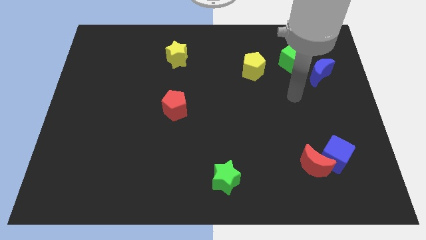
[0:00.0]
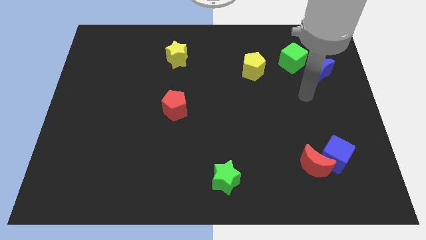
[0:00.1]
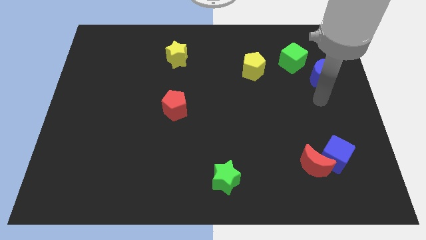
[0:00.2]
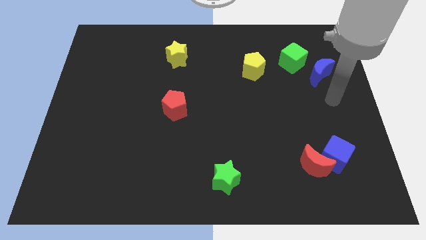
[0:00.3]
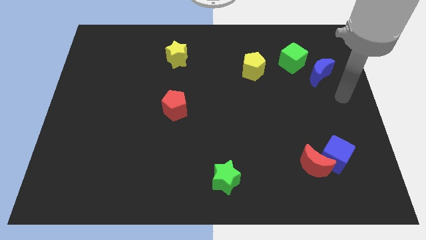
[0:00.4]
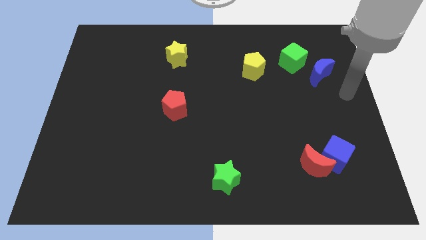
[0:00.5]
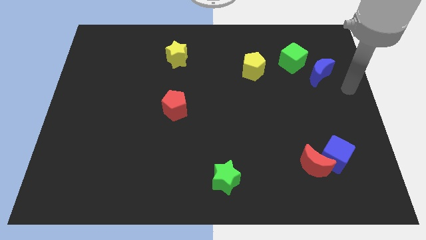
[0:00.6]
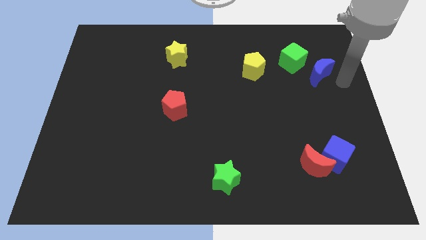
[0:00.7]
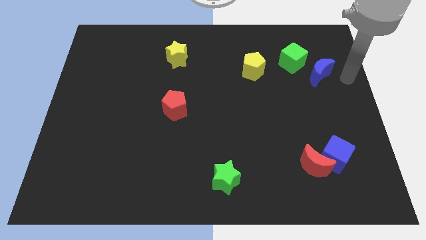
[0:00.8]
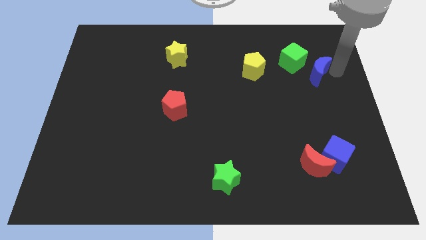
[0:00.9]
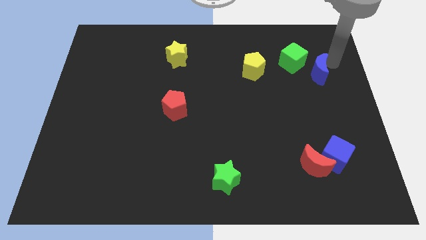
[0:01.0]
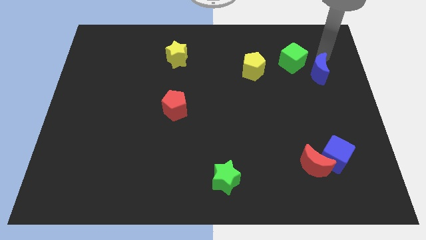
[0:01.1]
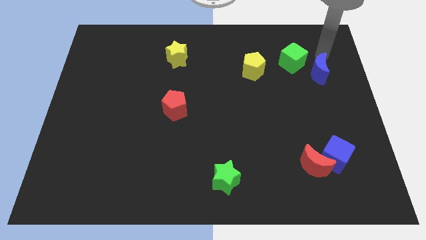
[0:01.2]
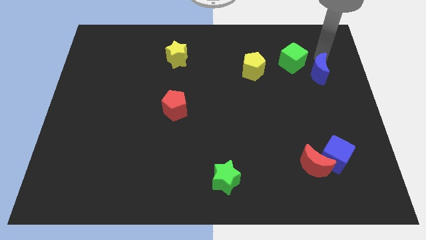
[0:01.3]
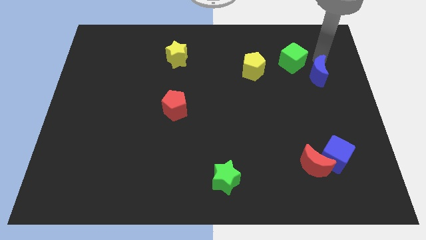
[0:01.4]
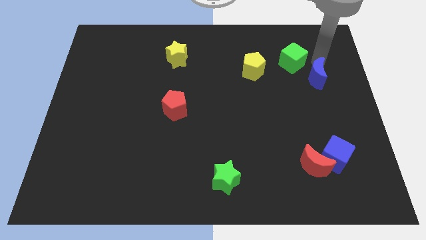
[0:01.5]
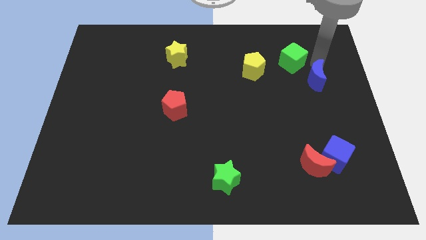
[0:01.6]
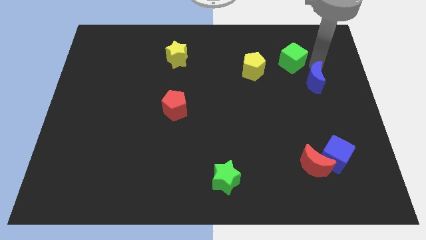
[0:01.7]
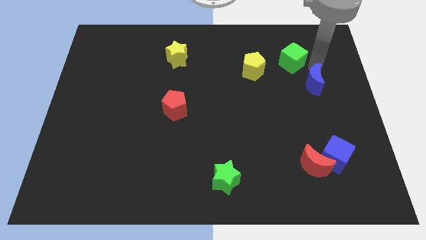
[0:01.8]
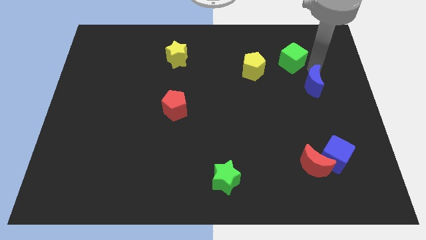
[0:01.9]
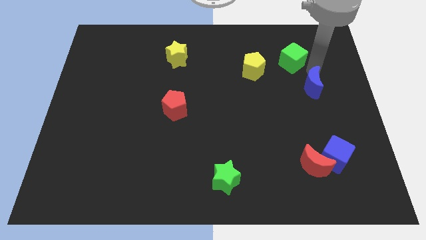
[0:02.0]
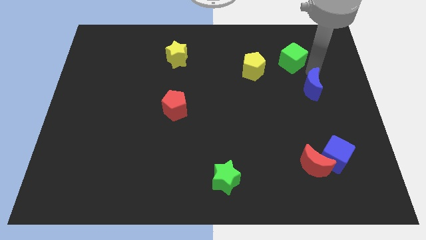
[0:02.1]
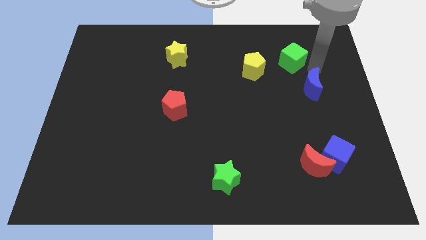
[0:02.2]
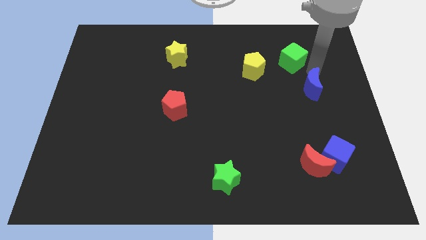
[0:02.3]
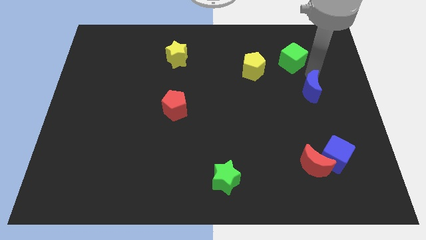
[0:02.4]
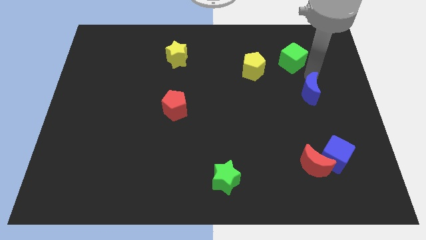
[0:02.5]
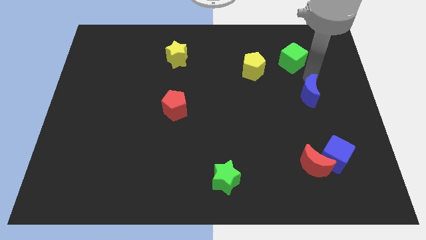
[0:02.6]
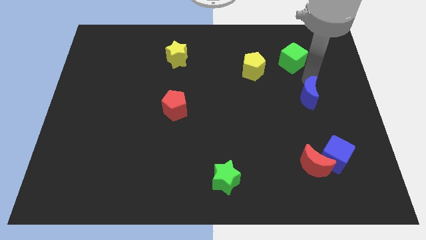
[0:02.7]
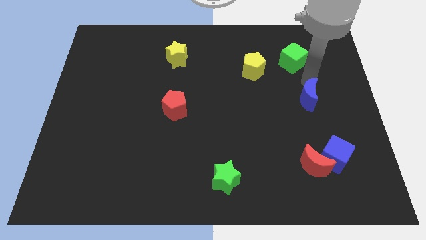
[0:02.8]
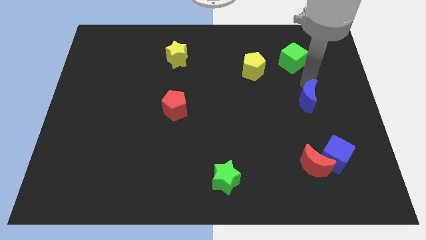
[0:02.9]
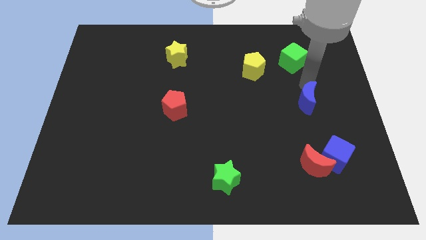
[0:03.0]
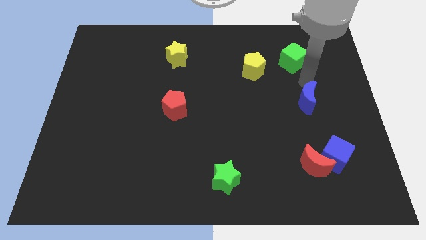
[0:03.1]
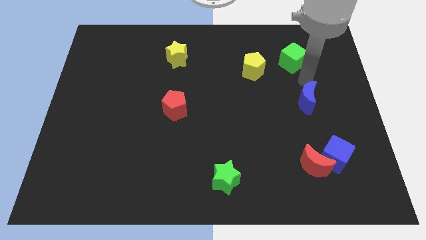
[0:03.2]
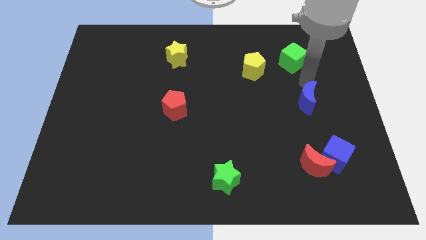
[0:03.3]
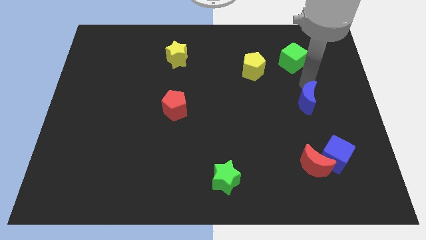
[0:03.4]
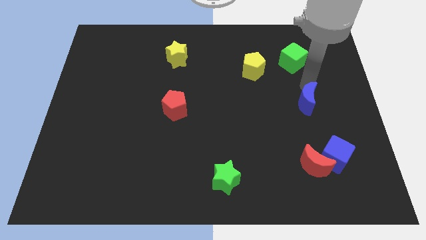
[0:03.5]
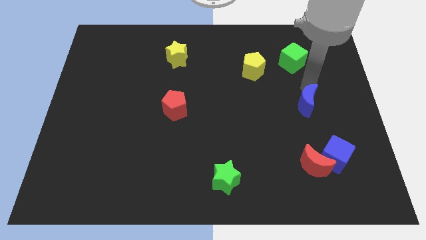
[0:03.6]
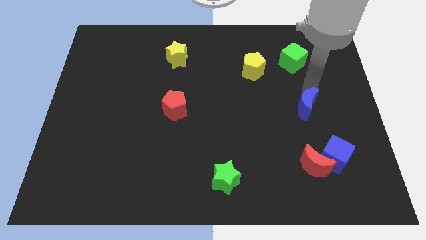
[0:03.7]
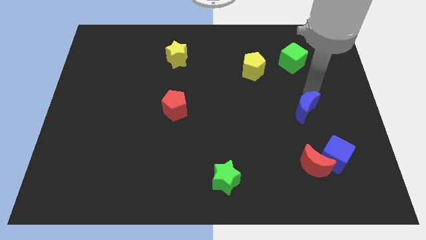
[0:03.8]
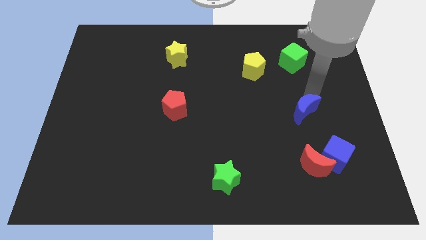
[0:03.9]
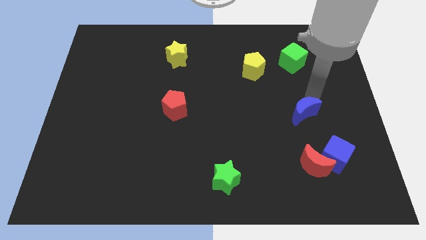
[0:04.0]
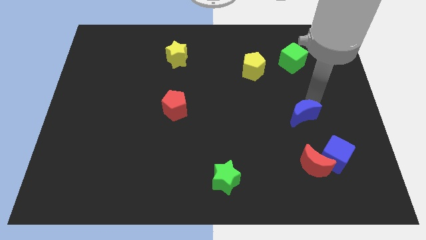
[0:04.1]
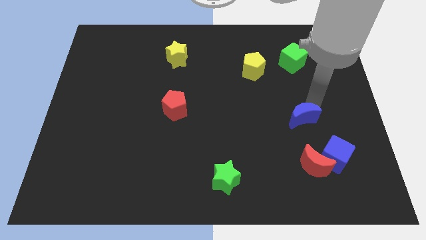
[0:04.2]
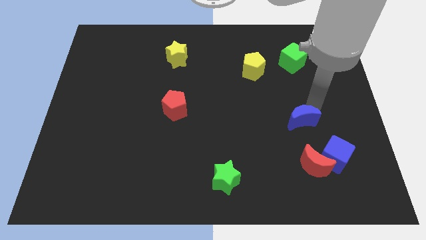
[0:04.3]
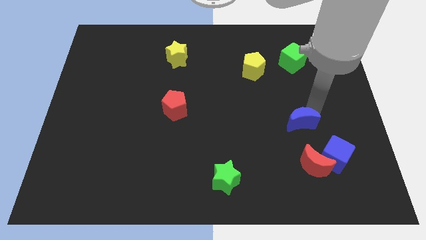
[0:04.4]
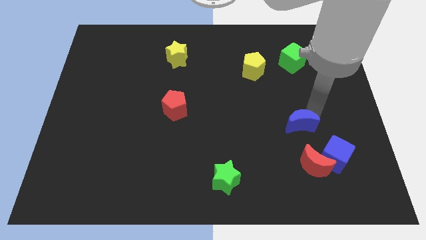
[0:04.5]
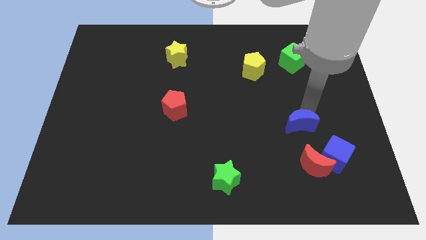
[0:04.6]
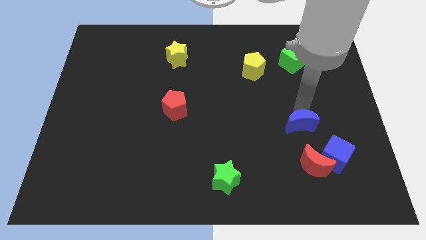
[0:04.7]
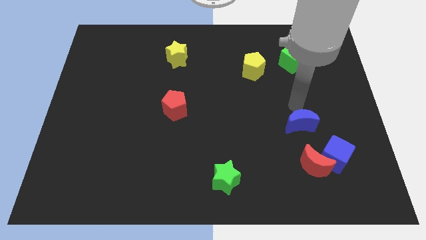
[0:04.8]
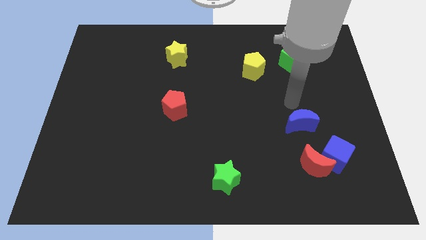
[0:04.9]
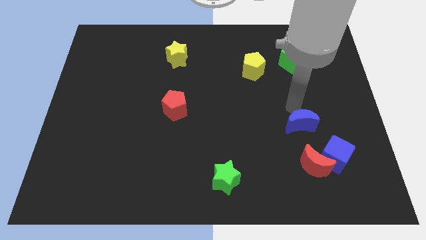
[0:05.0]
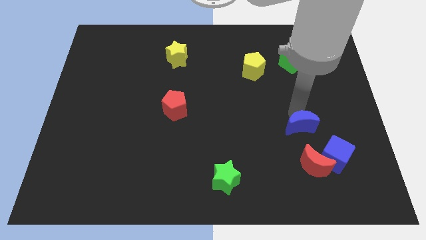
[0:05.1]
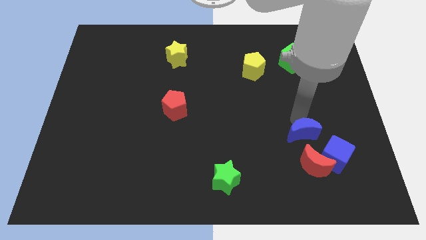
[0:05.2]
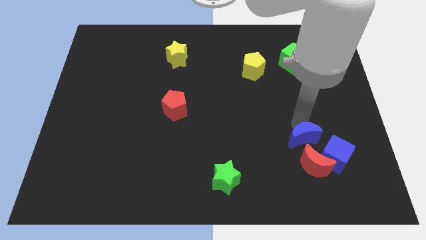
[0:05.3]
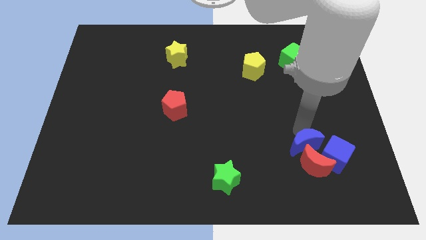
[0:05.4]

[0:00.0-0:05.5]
push the blue moon close to the red moon

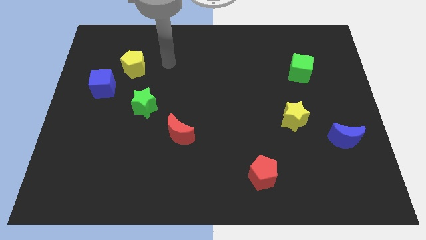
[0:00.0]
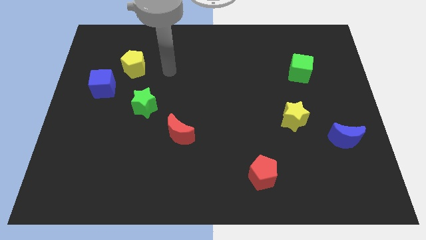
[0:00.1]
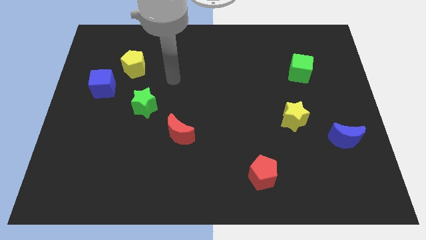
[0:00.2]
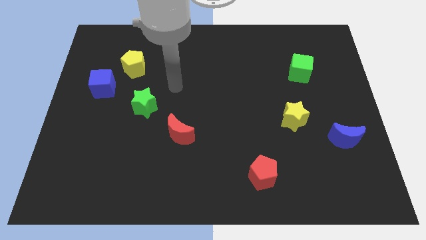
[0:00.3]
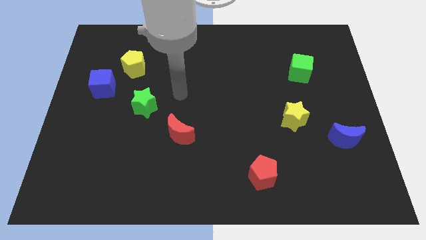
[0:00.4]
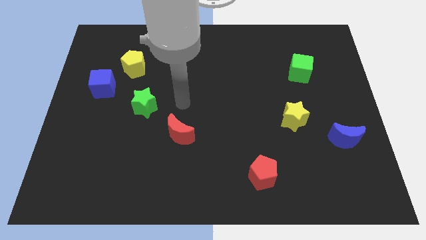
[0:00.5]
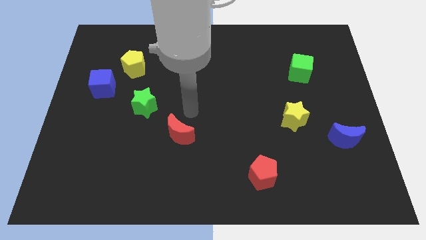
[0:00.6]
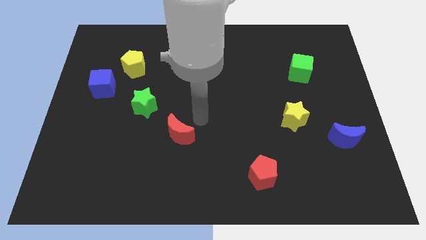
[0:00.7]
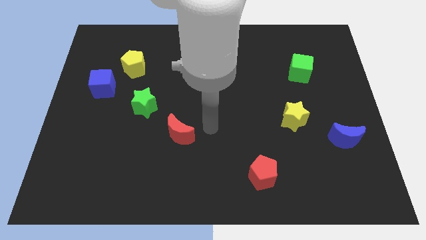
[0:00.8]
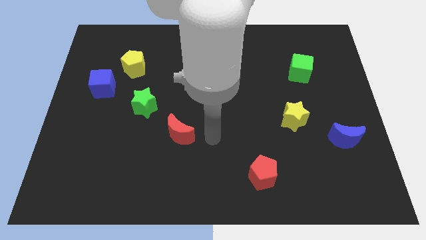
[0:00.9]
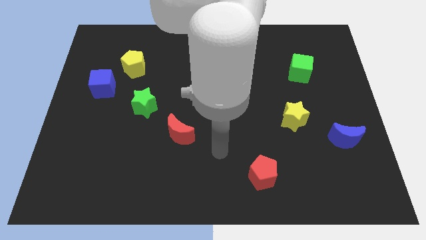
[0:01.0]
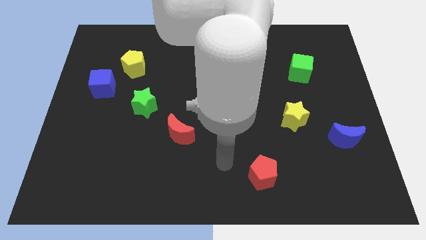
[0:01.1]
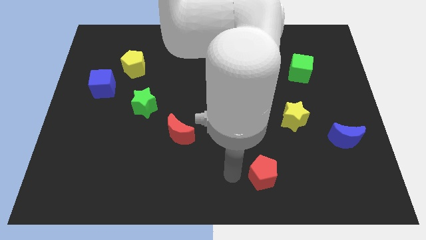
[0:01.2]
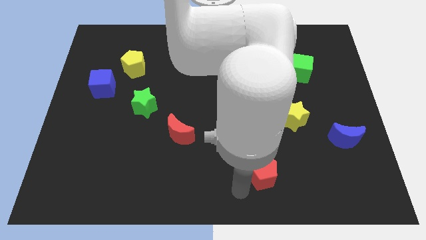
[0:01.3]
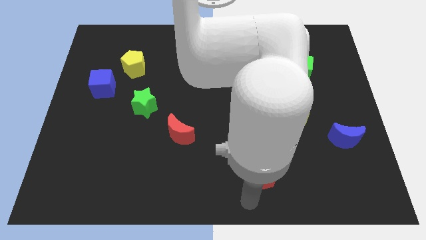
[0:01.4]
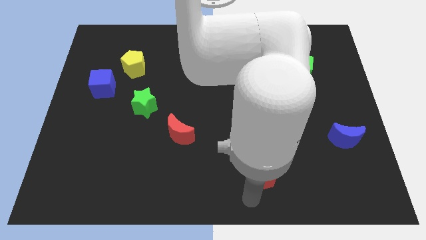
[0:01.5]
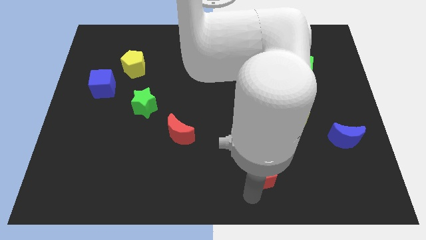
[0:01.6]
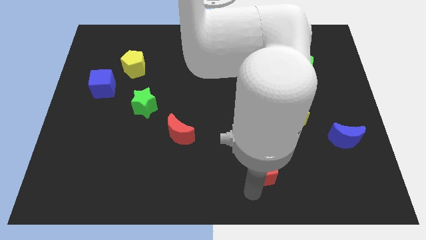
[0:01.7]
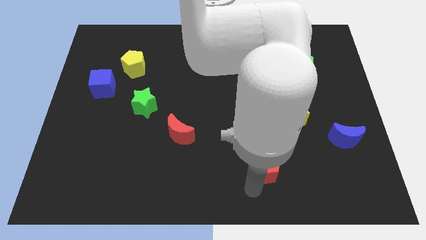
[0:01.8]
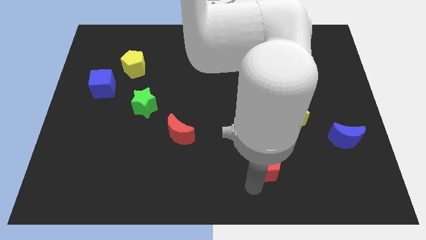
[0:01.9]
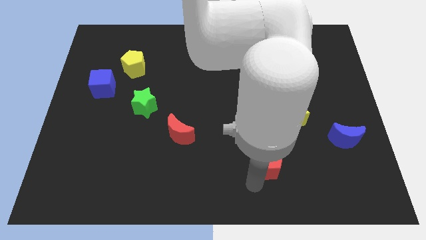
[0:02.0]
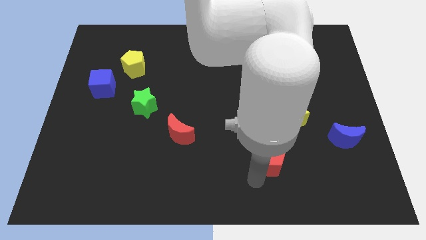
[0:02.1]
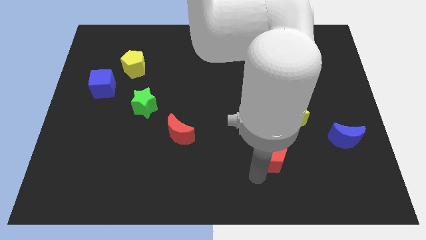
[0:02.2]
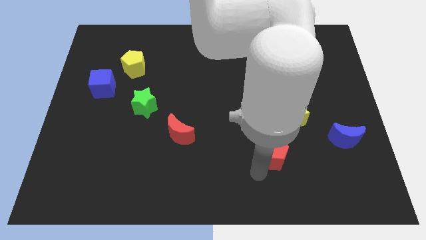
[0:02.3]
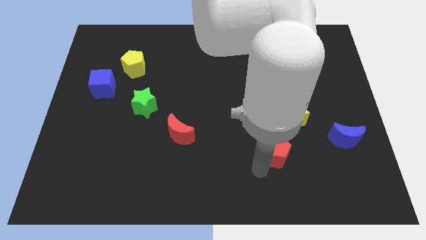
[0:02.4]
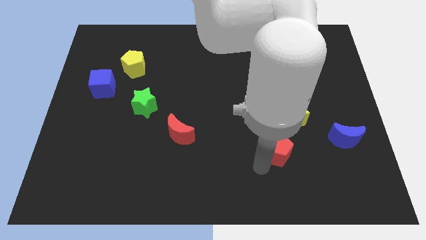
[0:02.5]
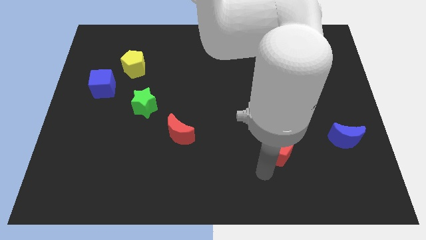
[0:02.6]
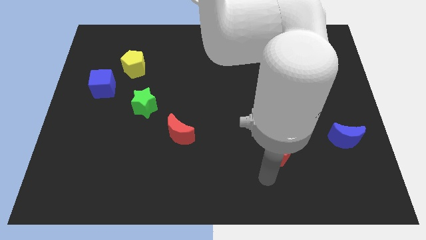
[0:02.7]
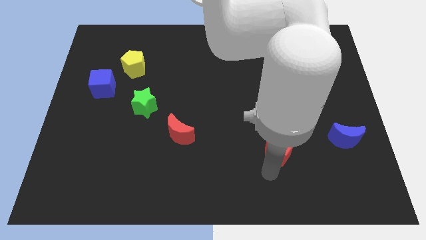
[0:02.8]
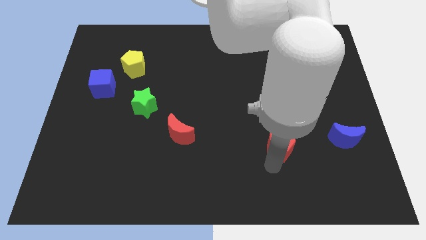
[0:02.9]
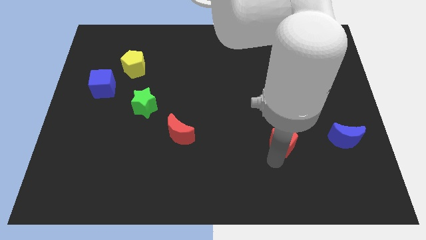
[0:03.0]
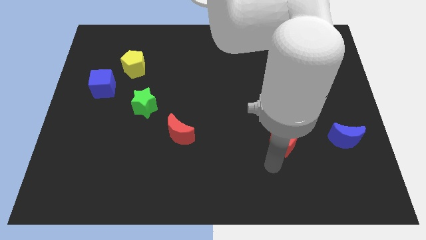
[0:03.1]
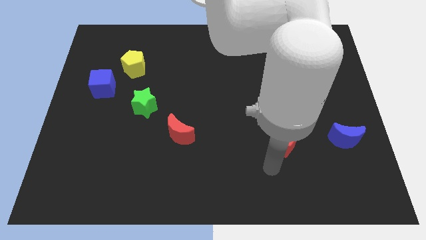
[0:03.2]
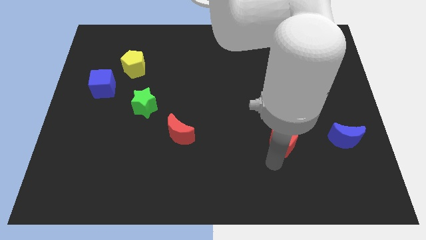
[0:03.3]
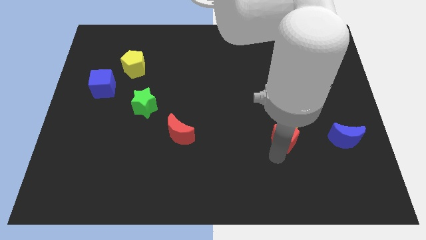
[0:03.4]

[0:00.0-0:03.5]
move the red pentagon to the yellow star
